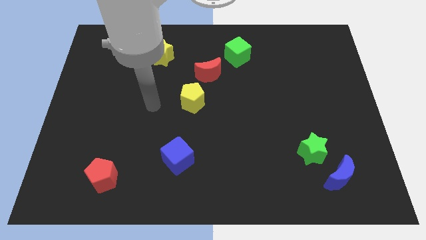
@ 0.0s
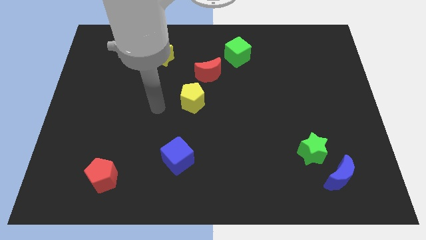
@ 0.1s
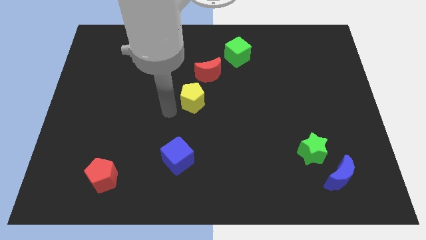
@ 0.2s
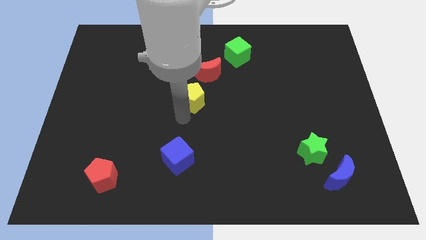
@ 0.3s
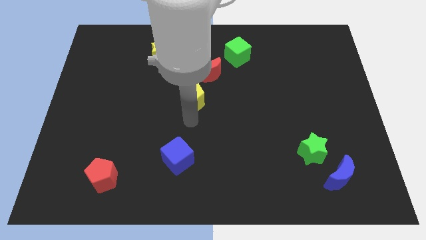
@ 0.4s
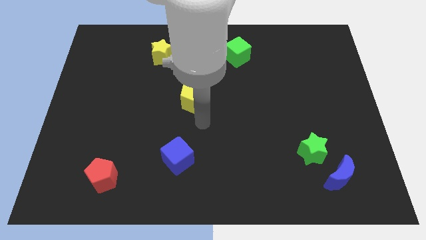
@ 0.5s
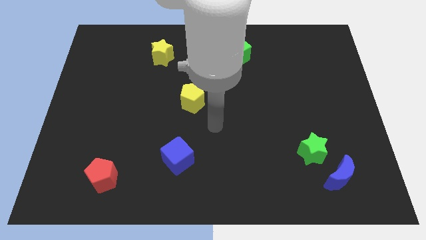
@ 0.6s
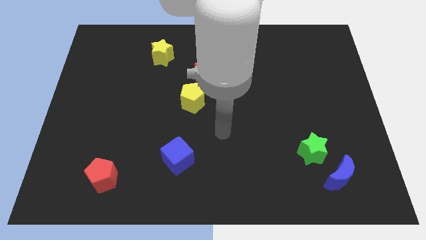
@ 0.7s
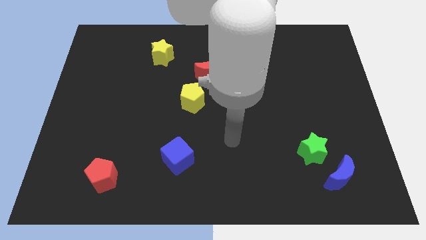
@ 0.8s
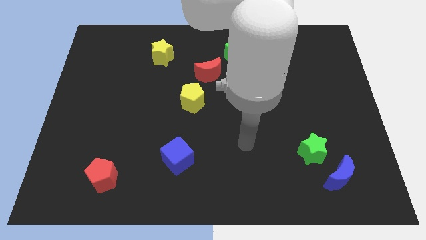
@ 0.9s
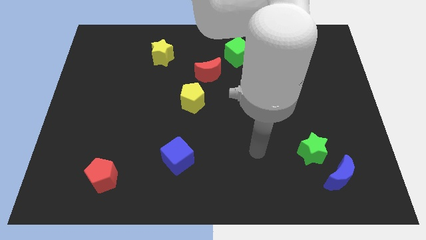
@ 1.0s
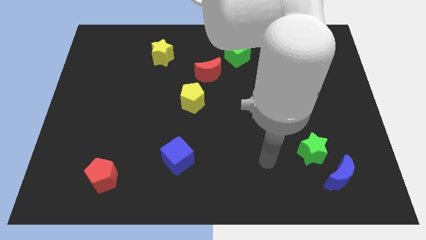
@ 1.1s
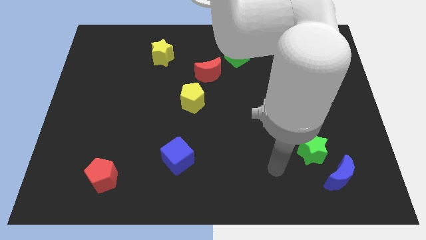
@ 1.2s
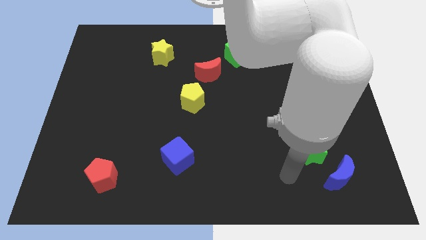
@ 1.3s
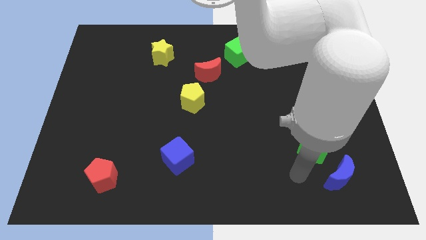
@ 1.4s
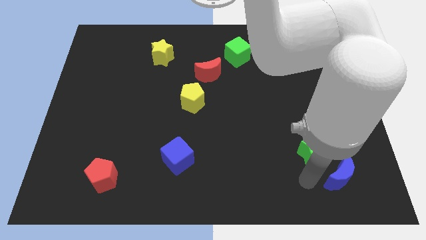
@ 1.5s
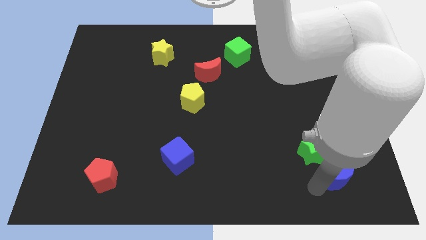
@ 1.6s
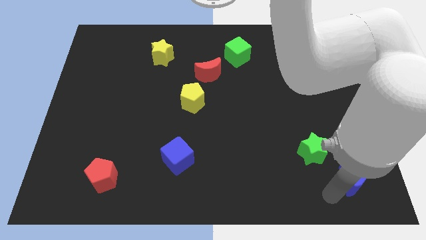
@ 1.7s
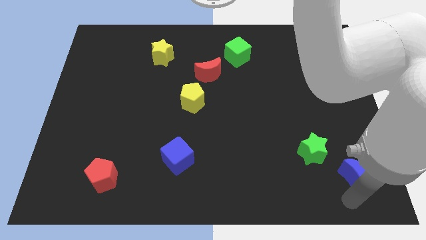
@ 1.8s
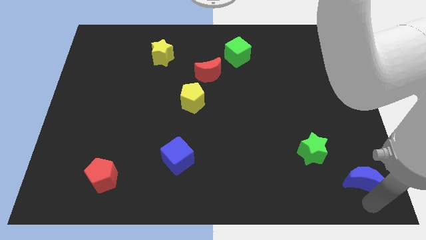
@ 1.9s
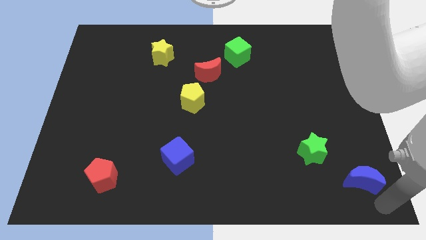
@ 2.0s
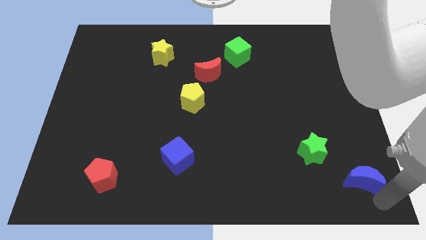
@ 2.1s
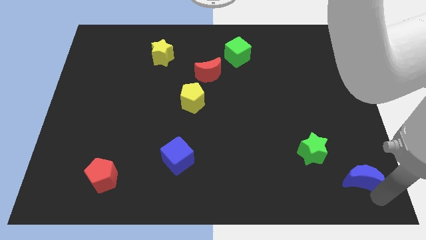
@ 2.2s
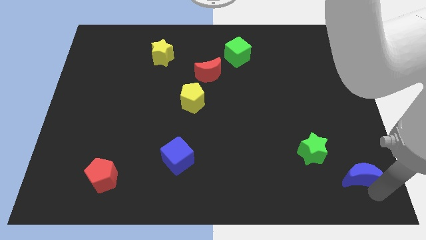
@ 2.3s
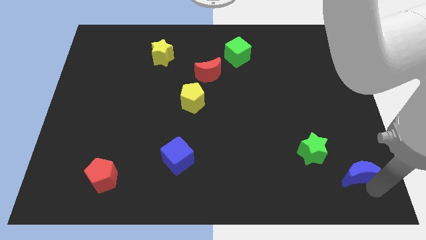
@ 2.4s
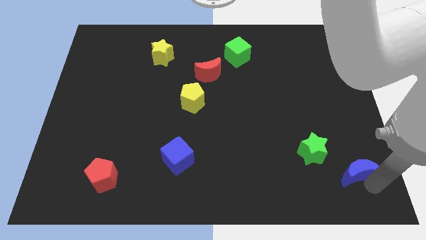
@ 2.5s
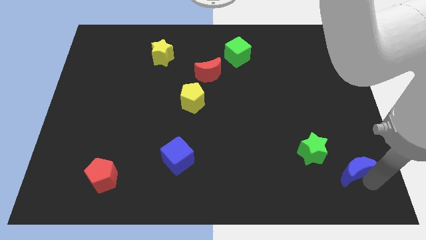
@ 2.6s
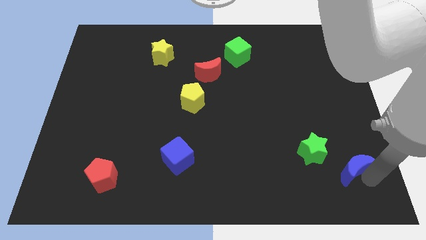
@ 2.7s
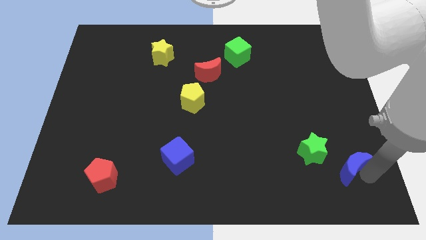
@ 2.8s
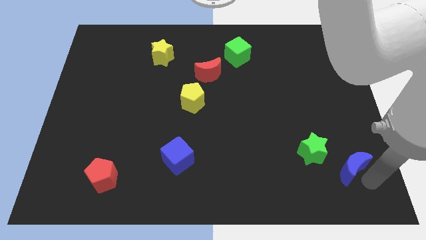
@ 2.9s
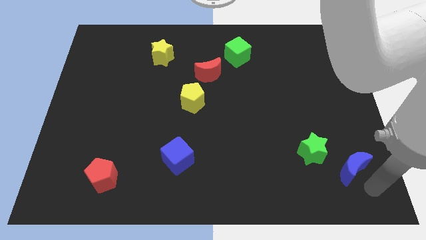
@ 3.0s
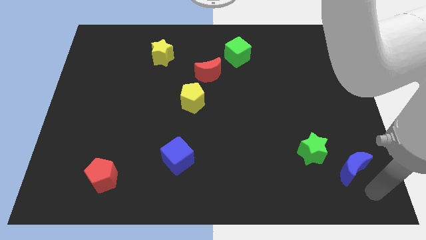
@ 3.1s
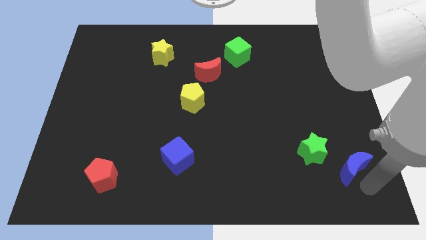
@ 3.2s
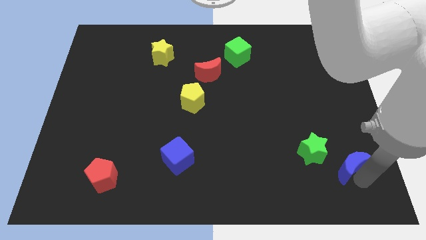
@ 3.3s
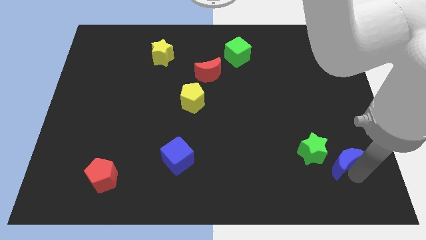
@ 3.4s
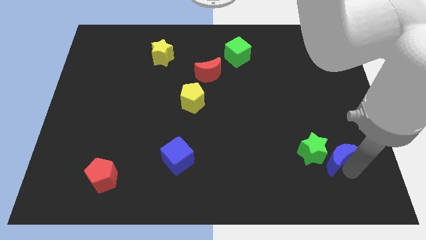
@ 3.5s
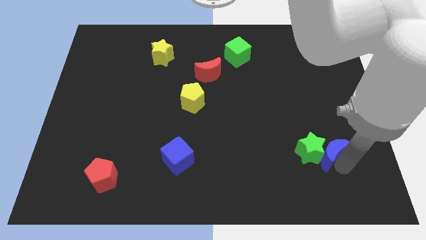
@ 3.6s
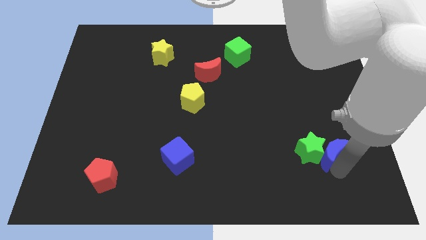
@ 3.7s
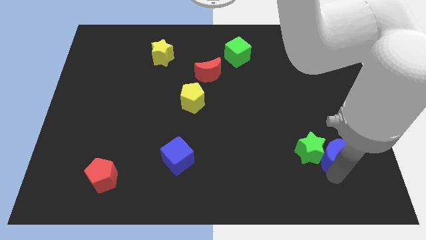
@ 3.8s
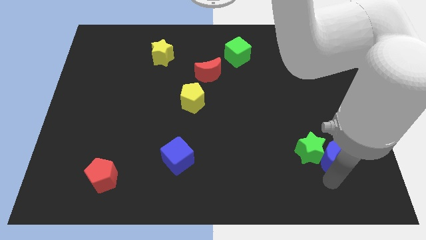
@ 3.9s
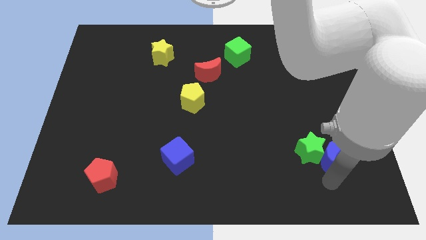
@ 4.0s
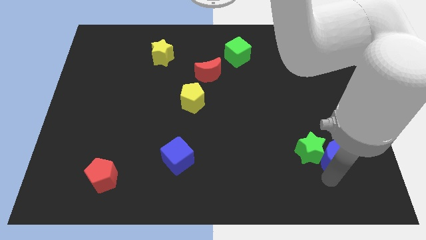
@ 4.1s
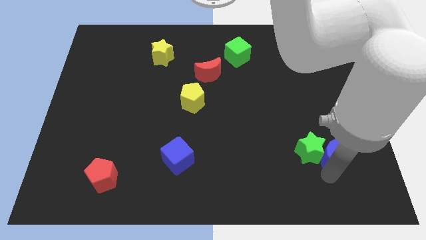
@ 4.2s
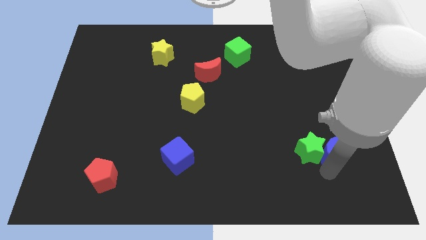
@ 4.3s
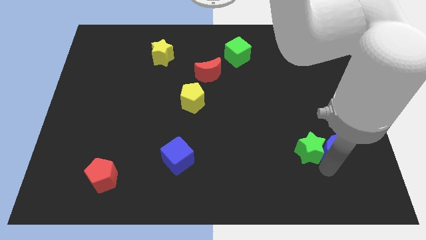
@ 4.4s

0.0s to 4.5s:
slide the blue moon upwards a bit

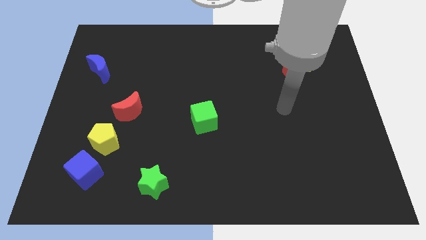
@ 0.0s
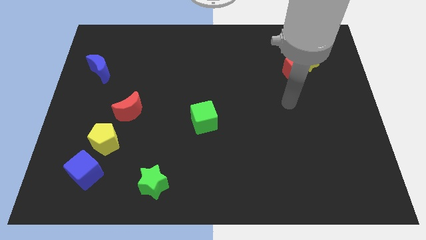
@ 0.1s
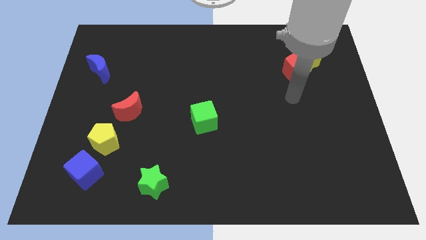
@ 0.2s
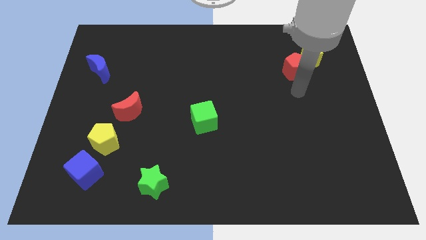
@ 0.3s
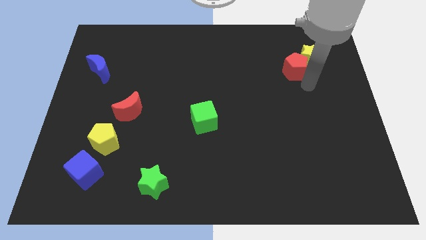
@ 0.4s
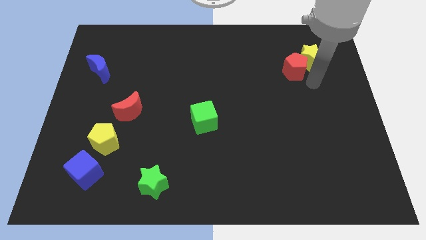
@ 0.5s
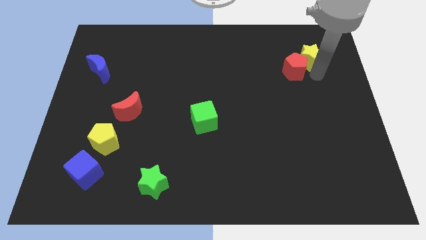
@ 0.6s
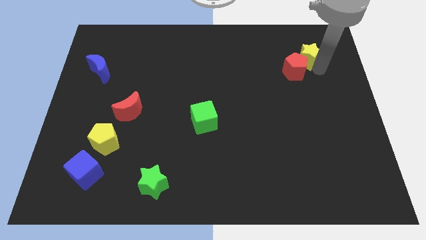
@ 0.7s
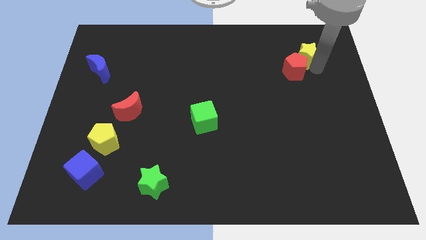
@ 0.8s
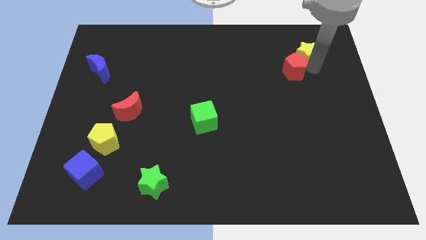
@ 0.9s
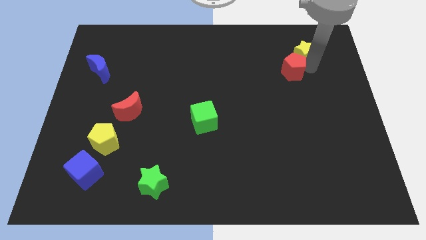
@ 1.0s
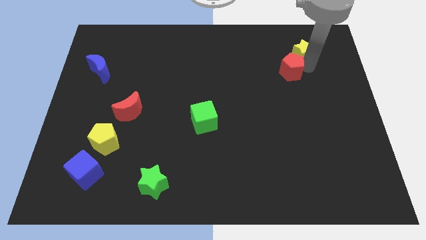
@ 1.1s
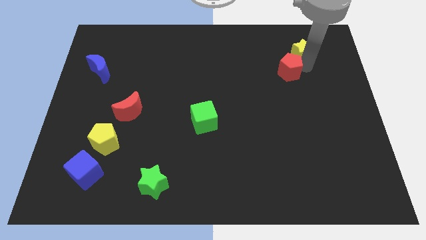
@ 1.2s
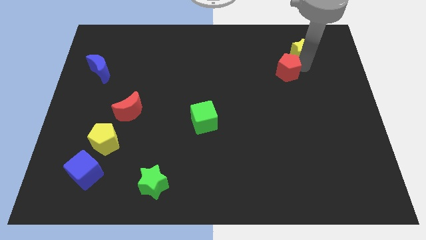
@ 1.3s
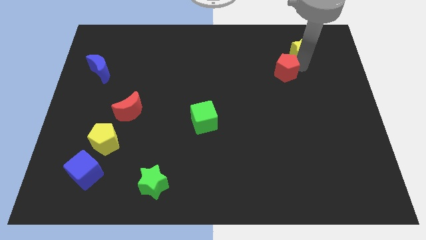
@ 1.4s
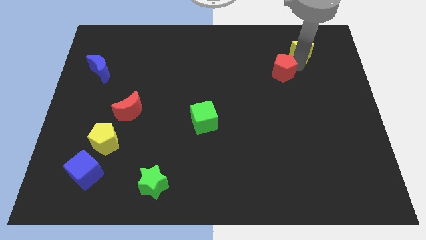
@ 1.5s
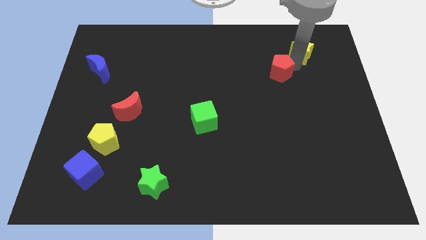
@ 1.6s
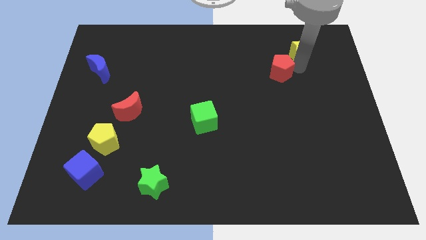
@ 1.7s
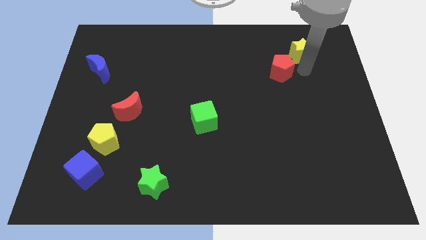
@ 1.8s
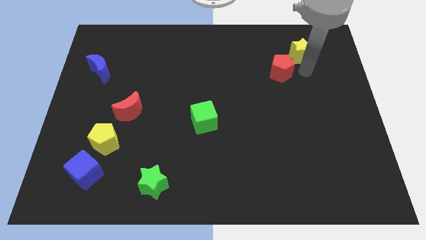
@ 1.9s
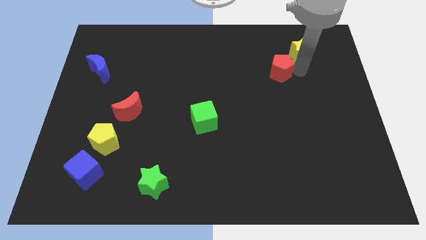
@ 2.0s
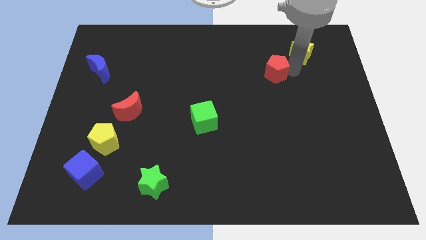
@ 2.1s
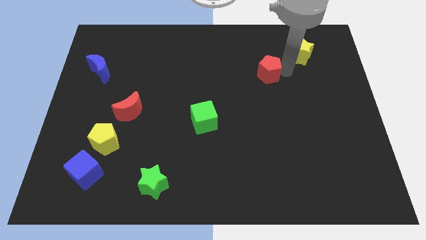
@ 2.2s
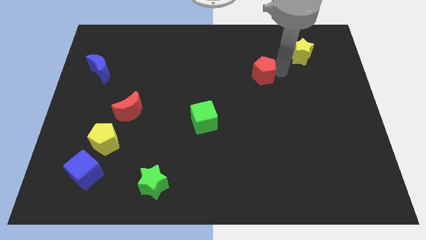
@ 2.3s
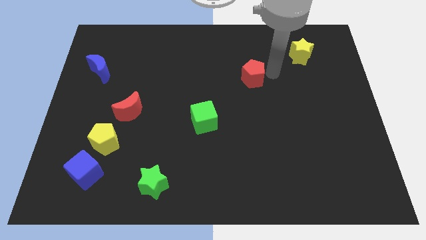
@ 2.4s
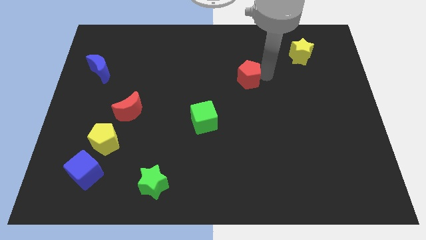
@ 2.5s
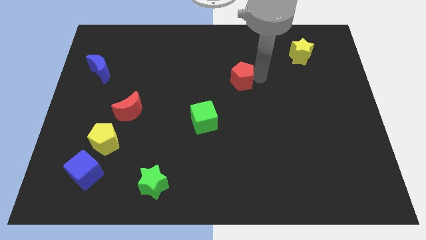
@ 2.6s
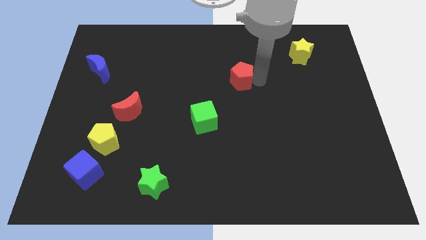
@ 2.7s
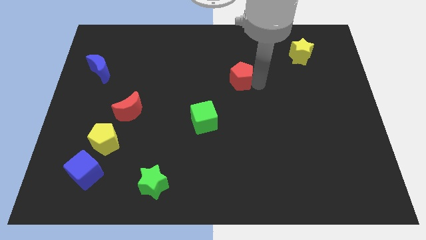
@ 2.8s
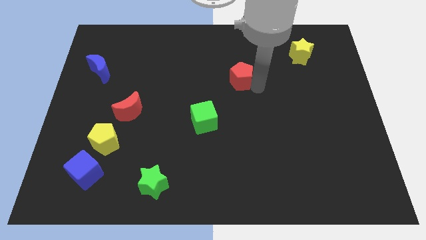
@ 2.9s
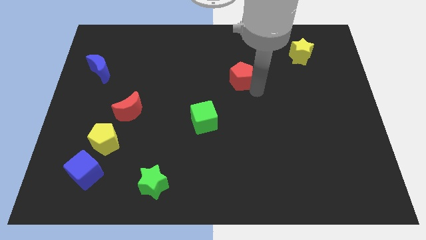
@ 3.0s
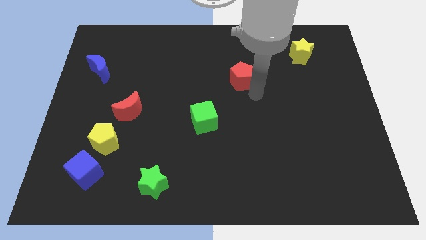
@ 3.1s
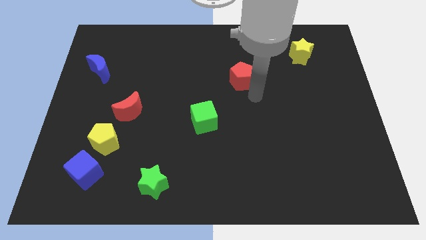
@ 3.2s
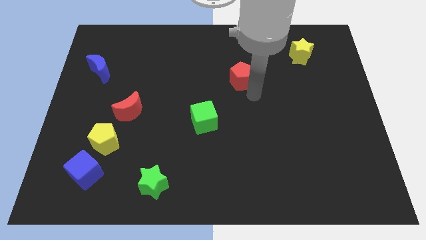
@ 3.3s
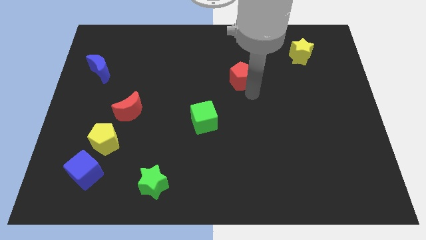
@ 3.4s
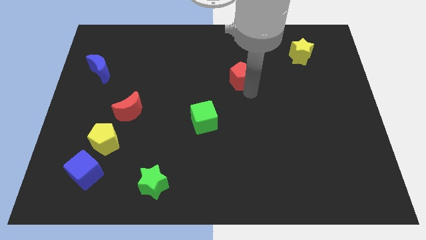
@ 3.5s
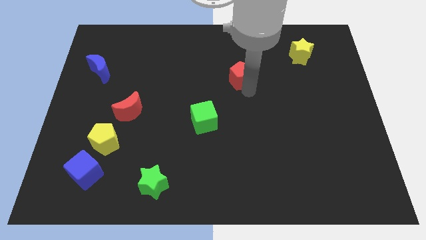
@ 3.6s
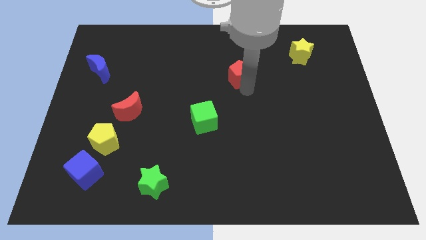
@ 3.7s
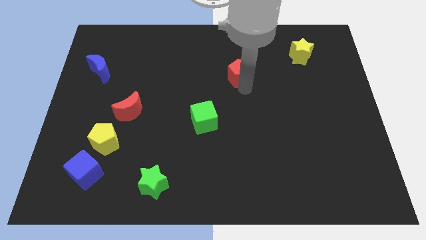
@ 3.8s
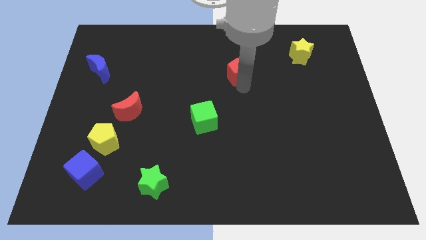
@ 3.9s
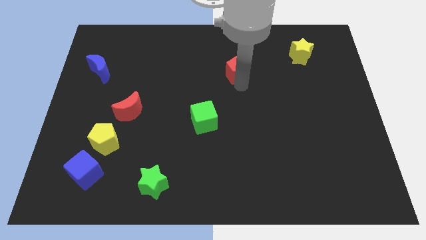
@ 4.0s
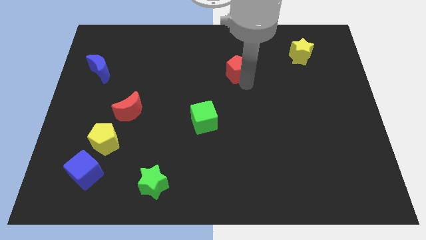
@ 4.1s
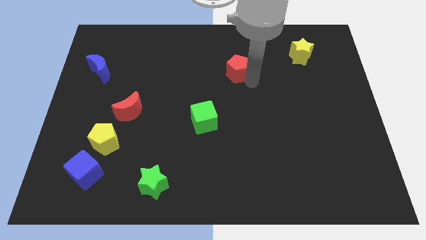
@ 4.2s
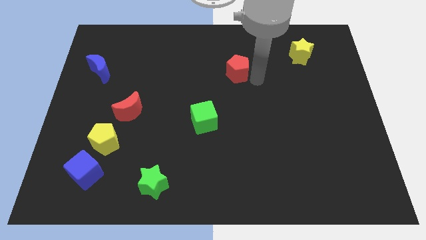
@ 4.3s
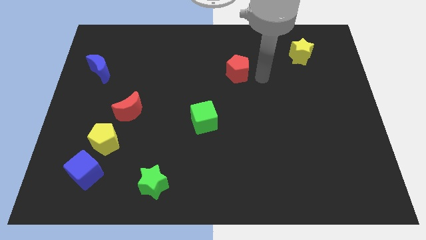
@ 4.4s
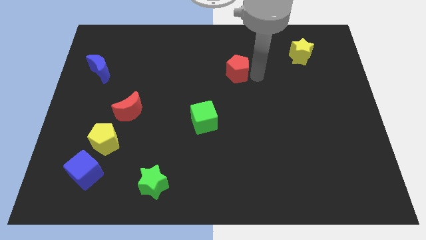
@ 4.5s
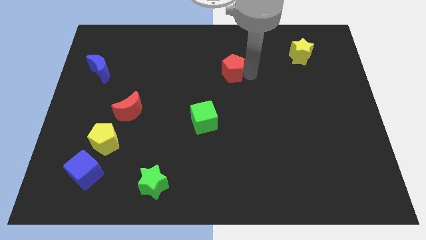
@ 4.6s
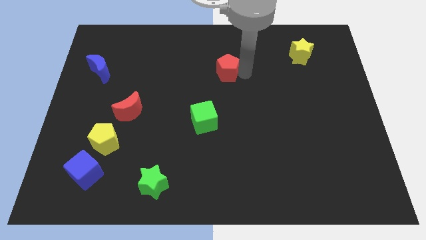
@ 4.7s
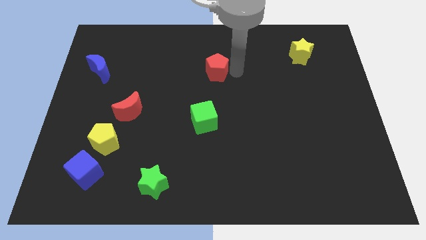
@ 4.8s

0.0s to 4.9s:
move the red pentagon left
